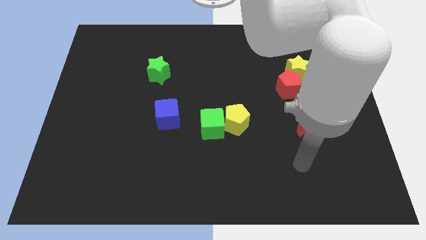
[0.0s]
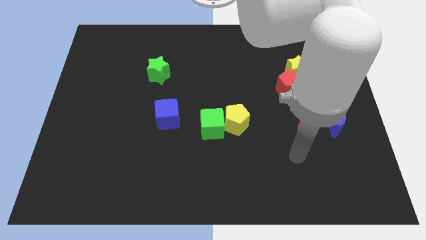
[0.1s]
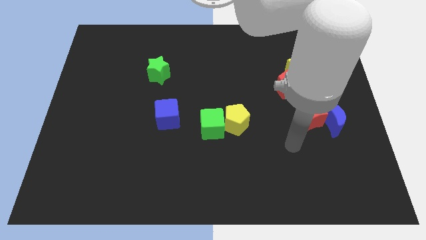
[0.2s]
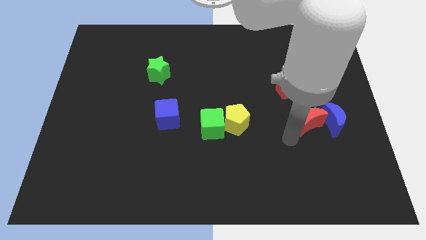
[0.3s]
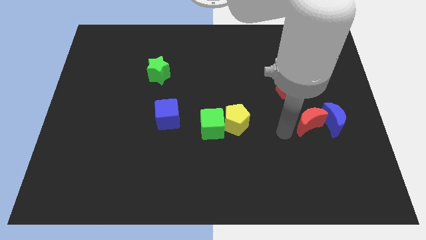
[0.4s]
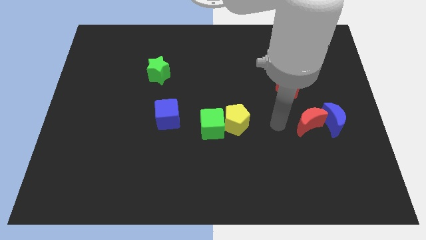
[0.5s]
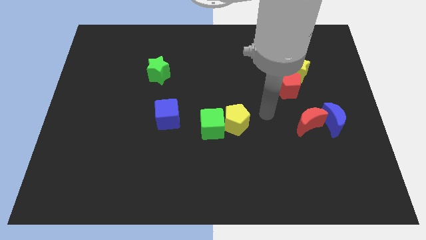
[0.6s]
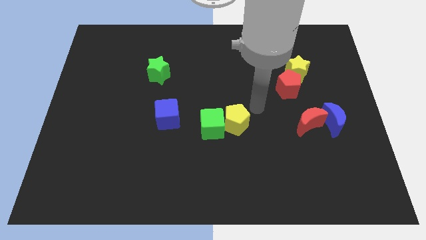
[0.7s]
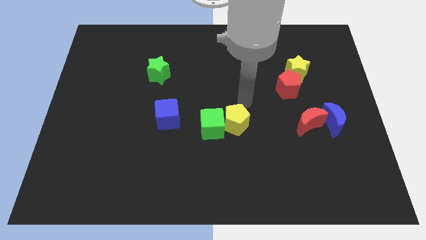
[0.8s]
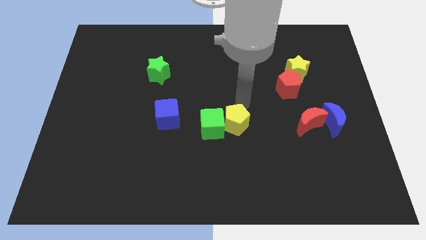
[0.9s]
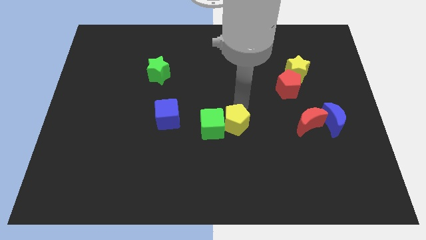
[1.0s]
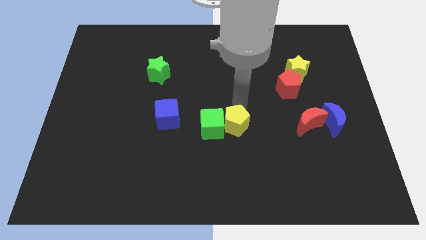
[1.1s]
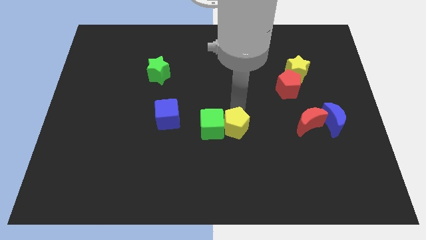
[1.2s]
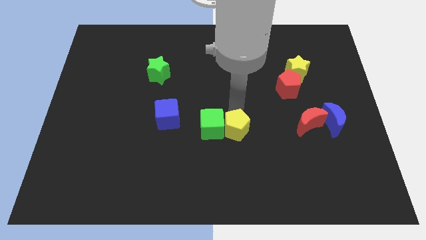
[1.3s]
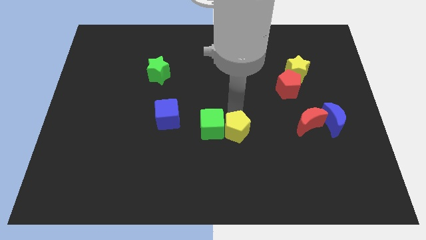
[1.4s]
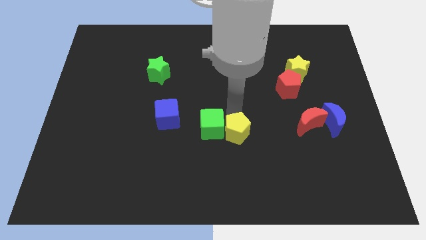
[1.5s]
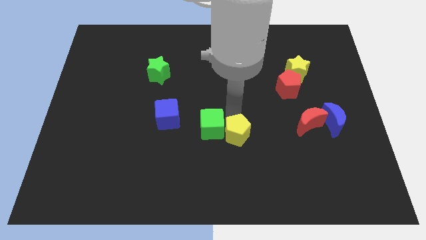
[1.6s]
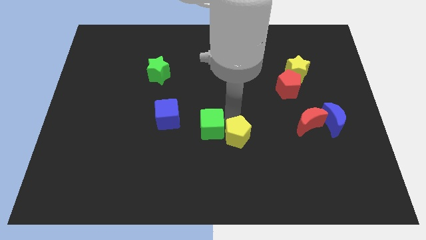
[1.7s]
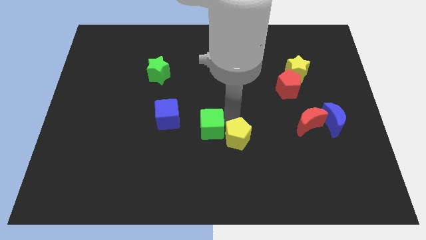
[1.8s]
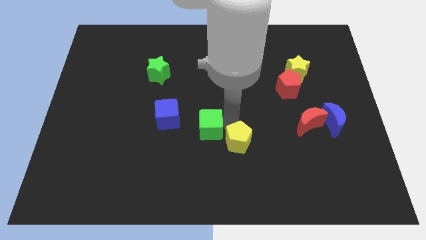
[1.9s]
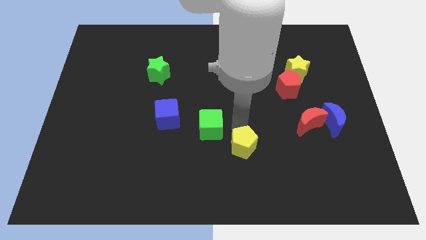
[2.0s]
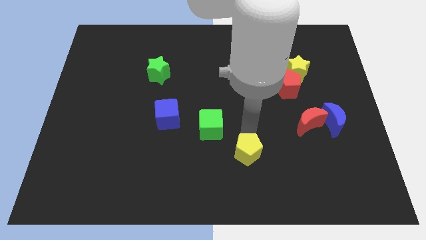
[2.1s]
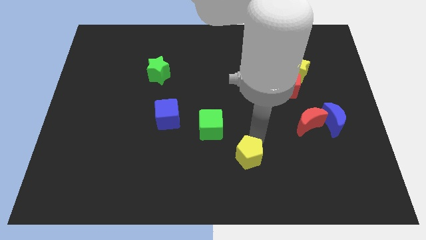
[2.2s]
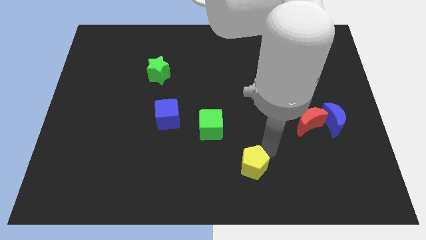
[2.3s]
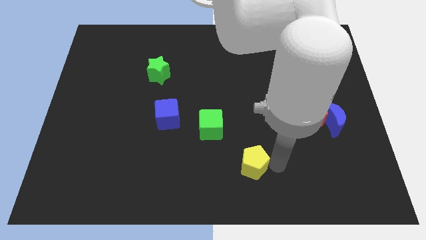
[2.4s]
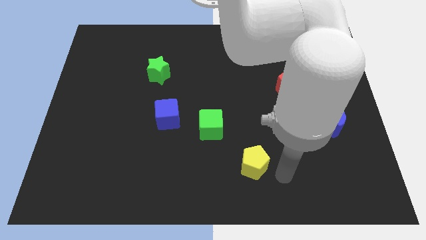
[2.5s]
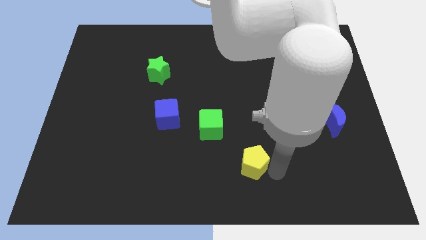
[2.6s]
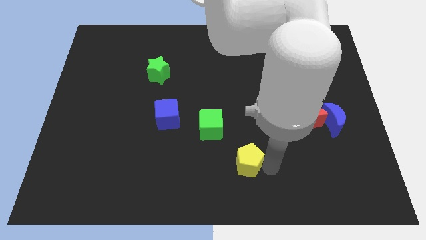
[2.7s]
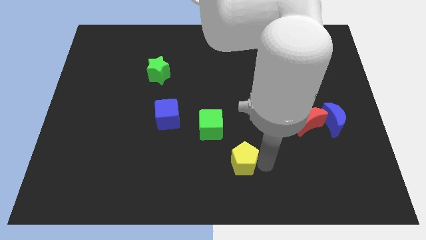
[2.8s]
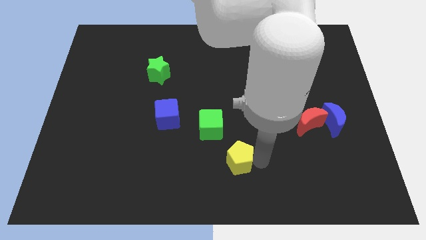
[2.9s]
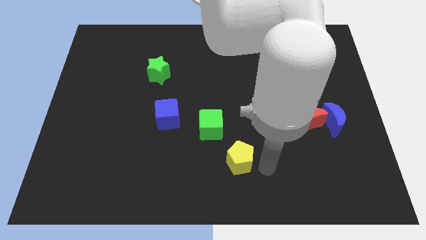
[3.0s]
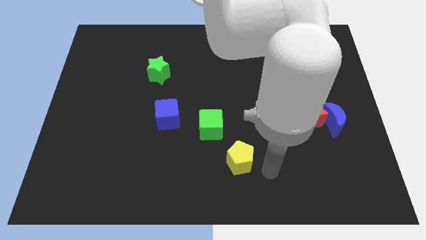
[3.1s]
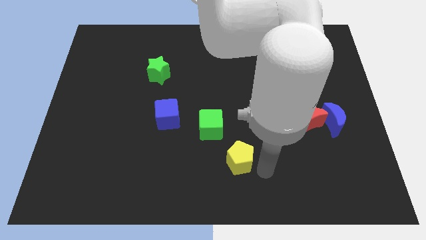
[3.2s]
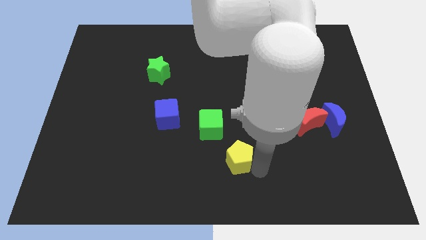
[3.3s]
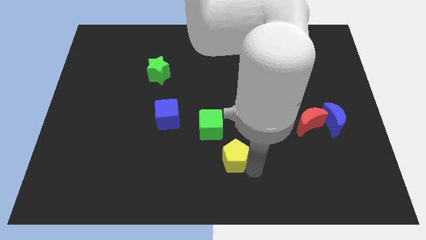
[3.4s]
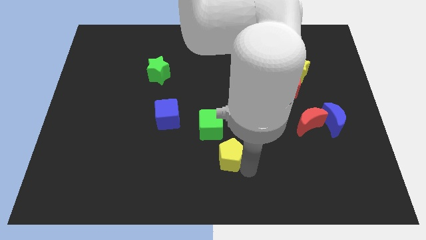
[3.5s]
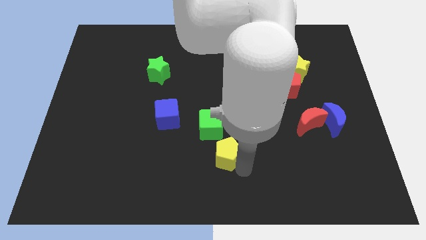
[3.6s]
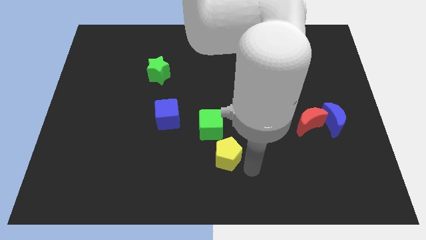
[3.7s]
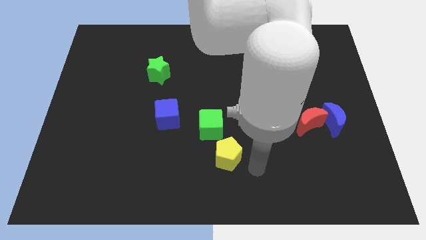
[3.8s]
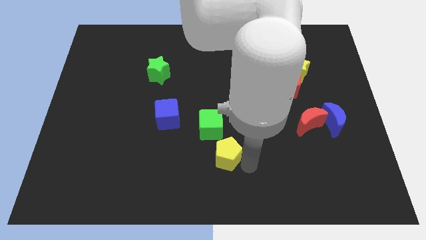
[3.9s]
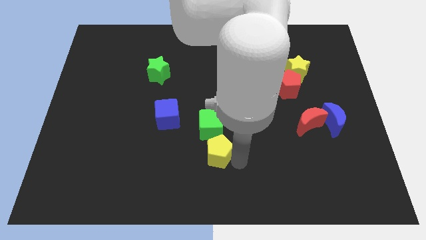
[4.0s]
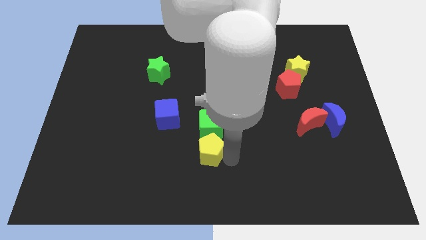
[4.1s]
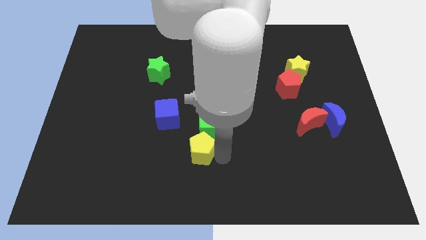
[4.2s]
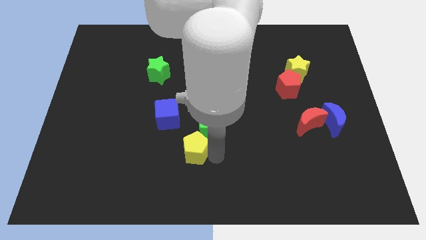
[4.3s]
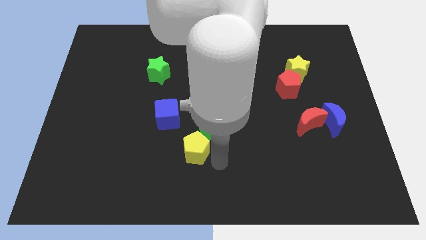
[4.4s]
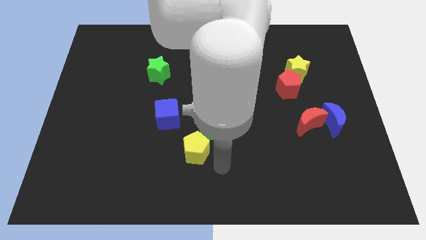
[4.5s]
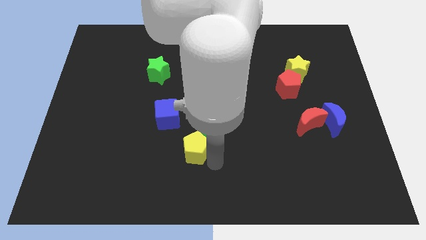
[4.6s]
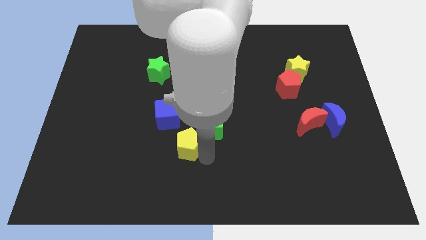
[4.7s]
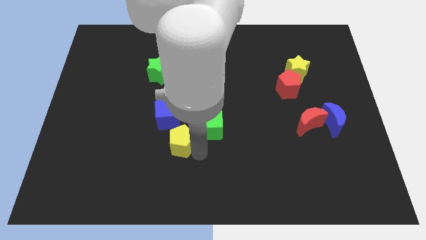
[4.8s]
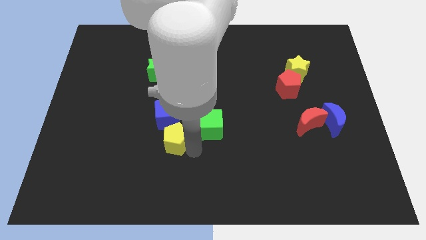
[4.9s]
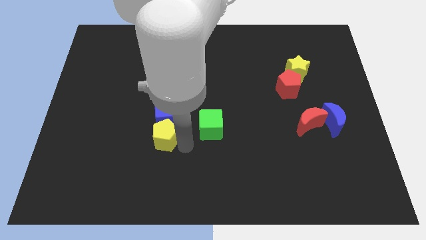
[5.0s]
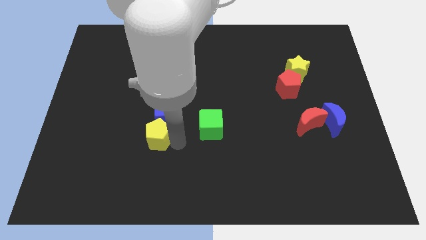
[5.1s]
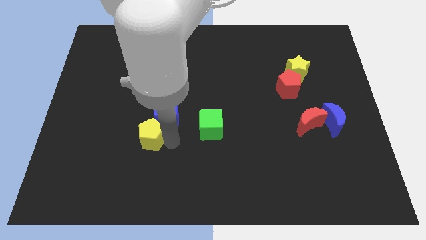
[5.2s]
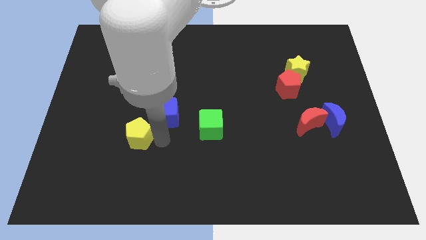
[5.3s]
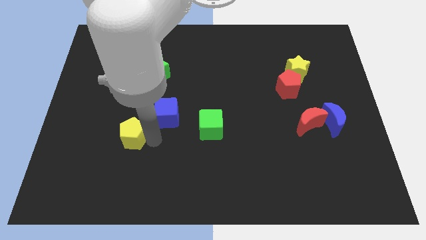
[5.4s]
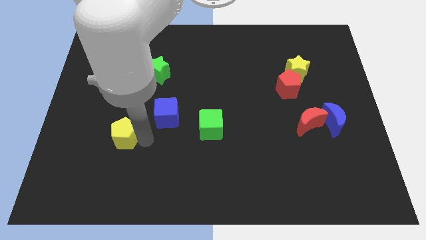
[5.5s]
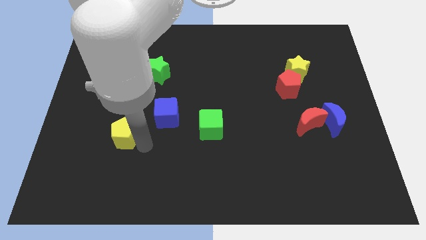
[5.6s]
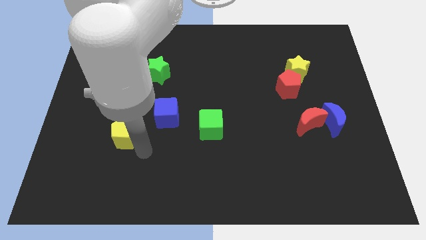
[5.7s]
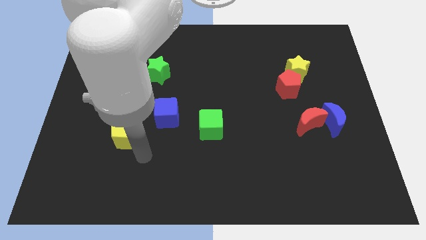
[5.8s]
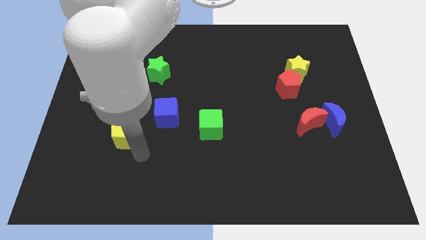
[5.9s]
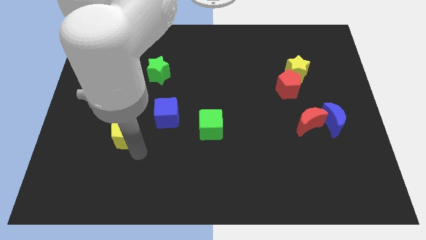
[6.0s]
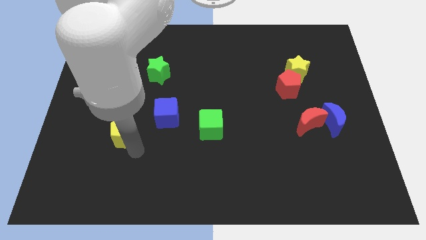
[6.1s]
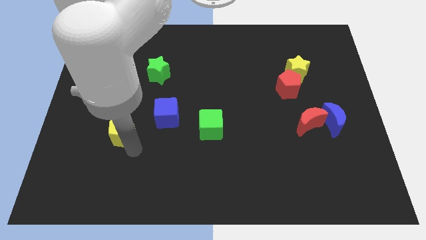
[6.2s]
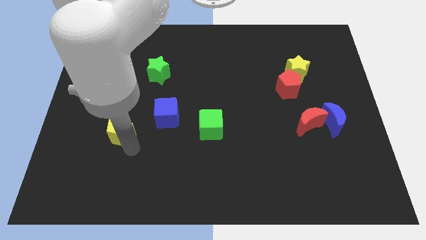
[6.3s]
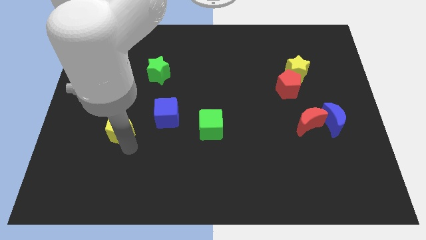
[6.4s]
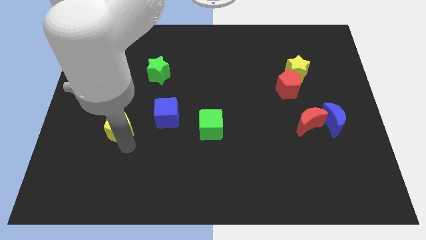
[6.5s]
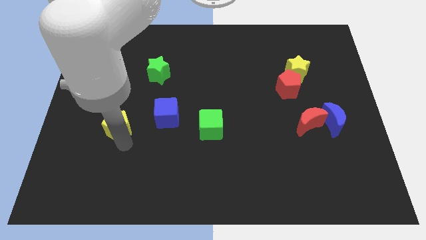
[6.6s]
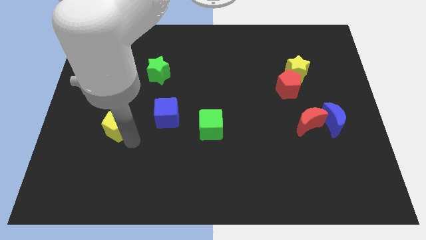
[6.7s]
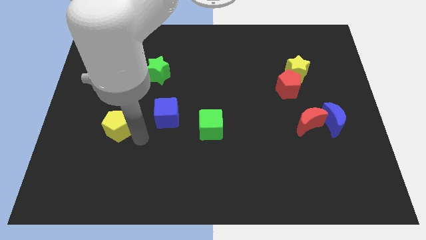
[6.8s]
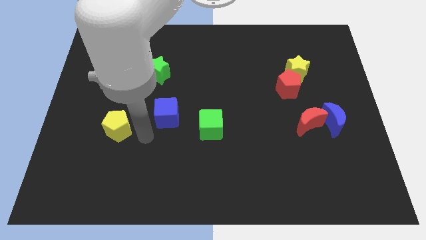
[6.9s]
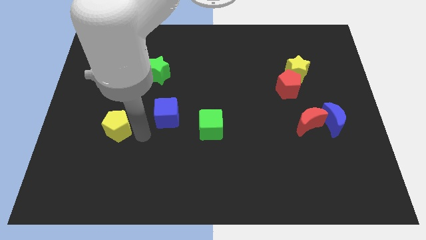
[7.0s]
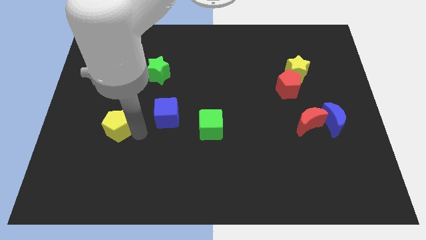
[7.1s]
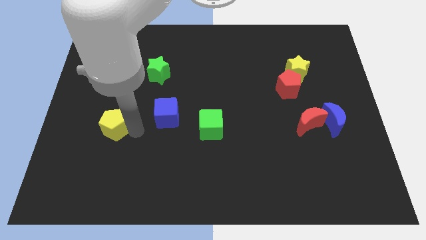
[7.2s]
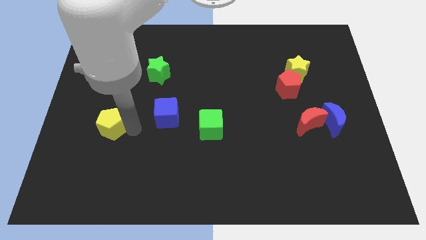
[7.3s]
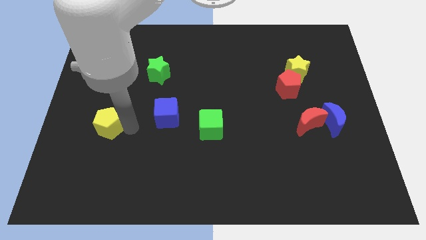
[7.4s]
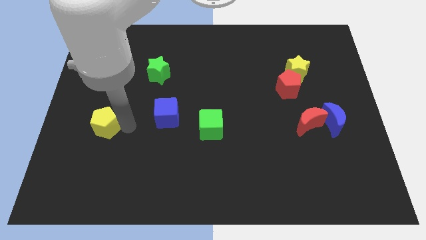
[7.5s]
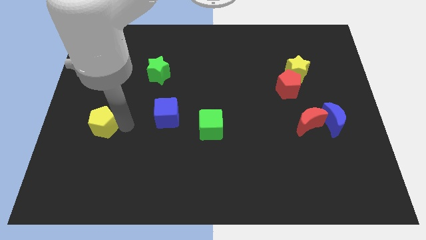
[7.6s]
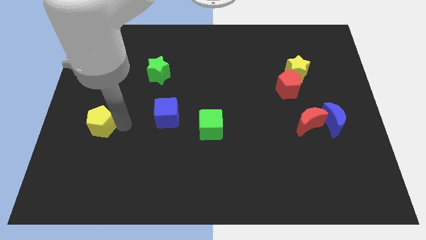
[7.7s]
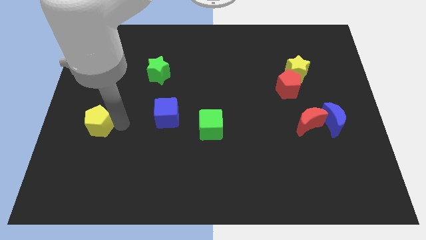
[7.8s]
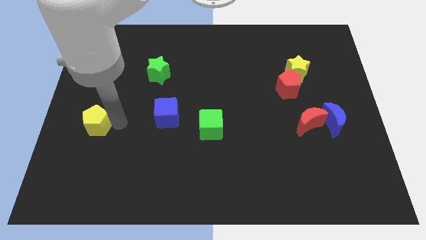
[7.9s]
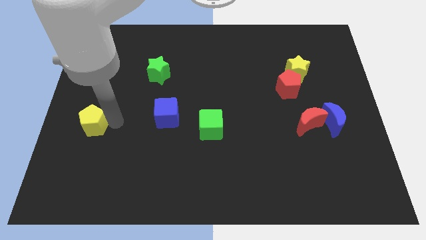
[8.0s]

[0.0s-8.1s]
push the yellow pentagon to the center left
